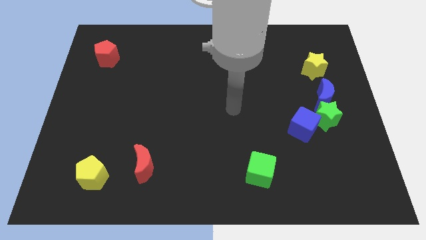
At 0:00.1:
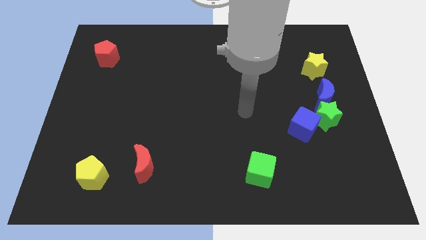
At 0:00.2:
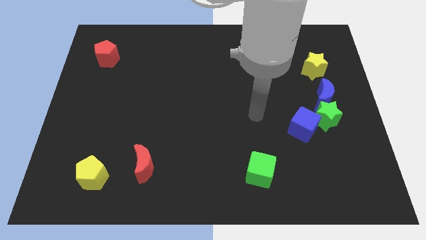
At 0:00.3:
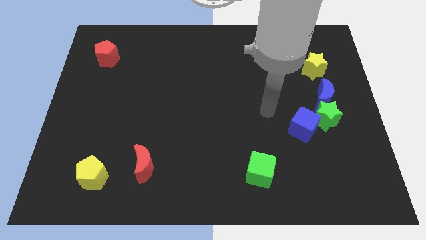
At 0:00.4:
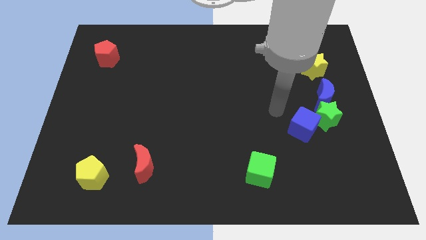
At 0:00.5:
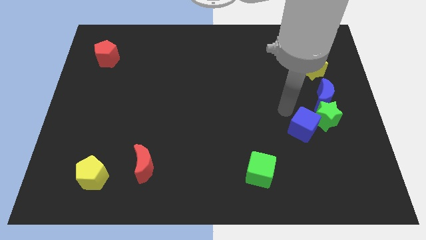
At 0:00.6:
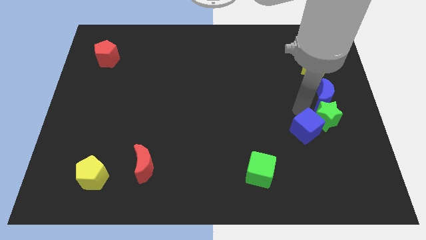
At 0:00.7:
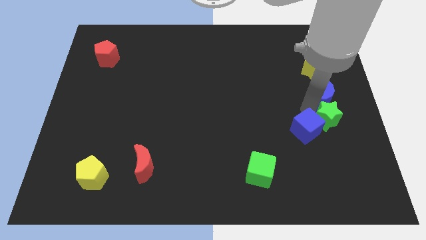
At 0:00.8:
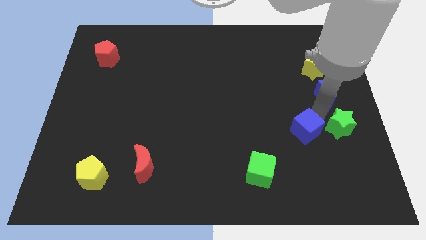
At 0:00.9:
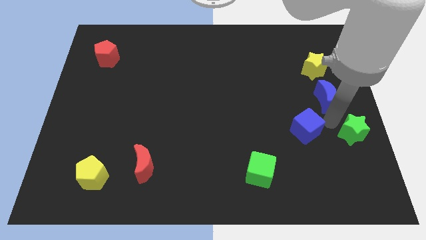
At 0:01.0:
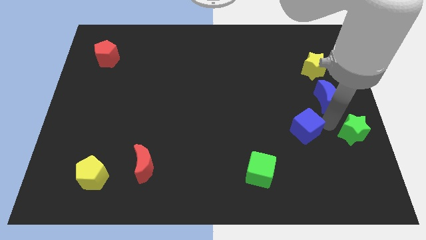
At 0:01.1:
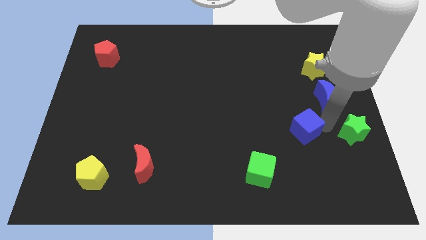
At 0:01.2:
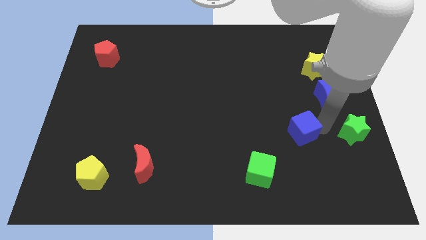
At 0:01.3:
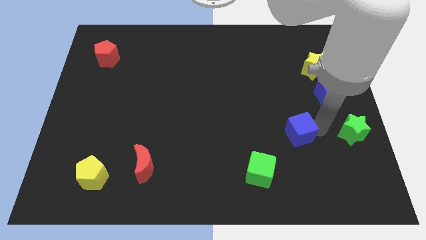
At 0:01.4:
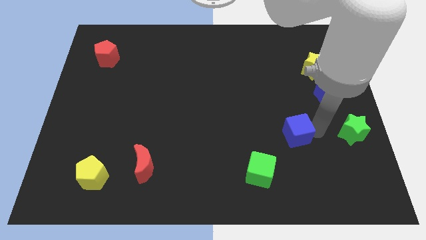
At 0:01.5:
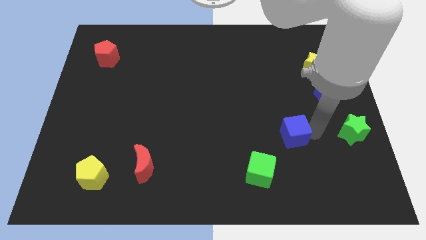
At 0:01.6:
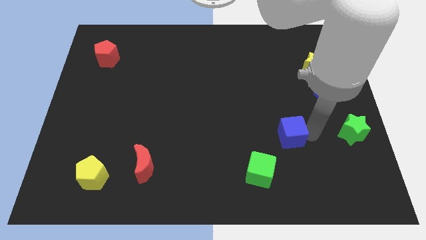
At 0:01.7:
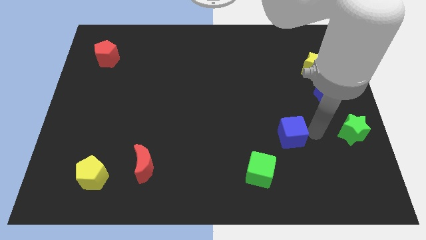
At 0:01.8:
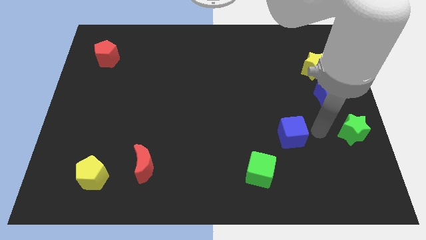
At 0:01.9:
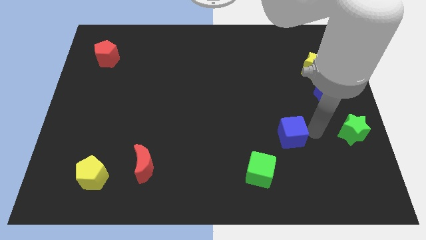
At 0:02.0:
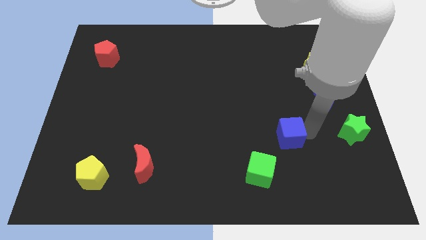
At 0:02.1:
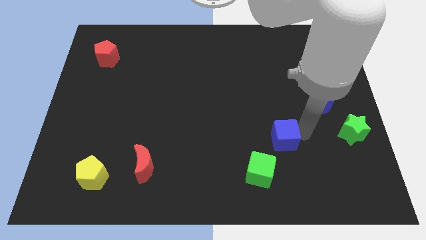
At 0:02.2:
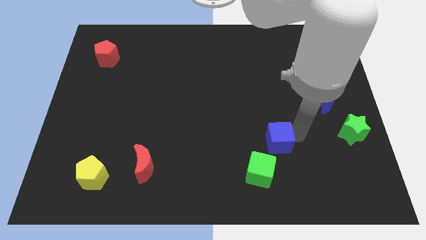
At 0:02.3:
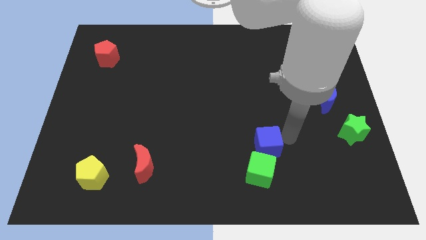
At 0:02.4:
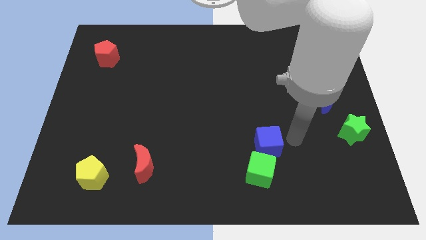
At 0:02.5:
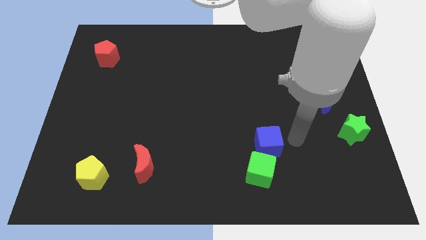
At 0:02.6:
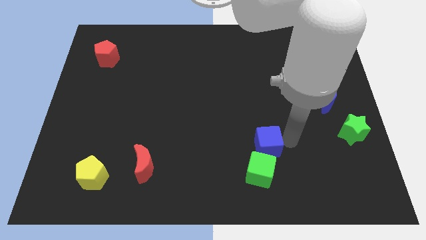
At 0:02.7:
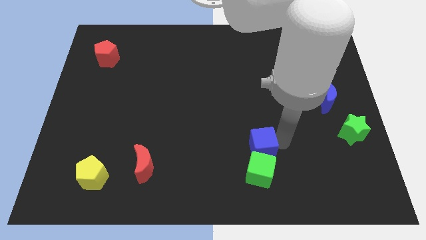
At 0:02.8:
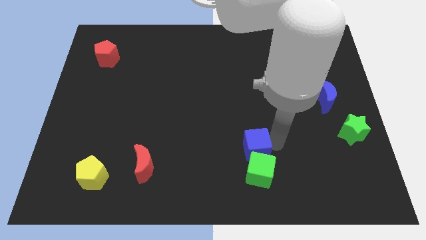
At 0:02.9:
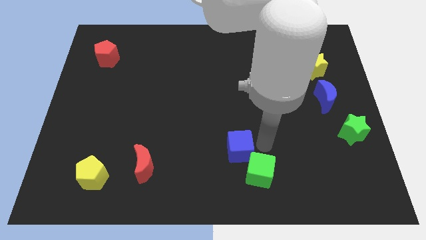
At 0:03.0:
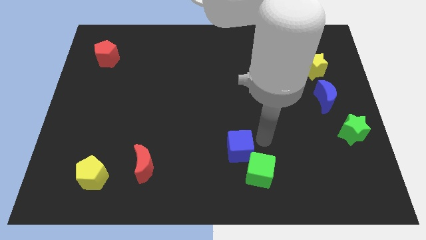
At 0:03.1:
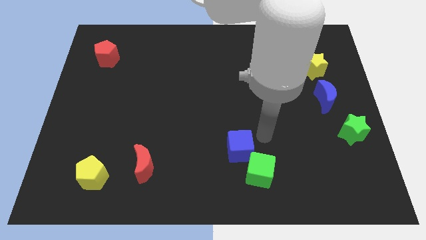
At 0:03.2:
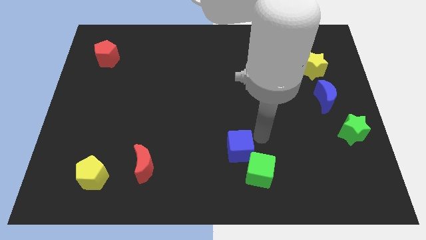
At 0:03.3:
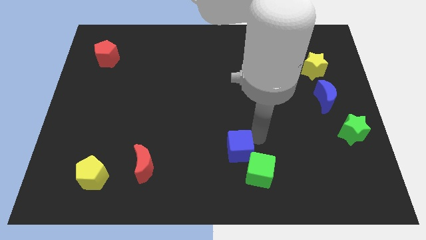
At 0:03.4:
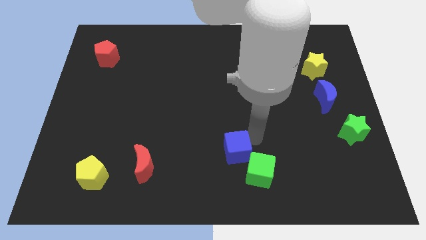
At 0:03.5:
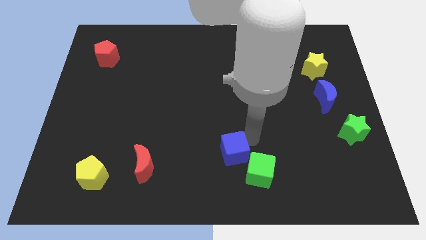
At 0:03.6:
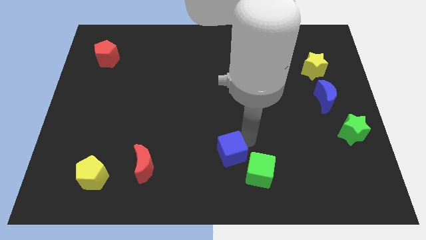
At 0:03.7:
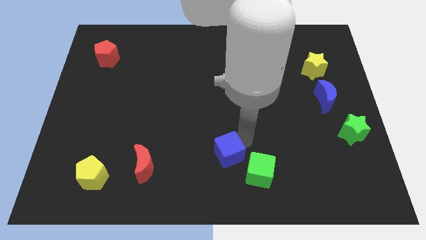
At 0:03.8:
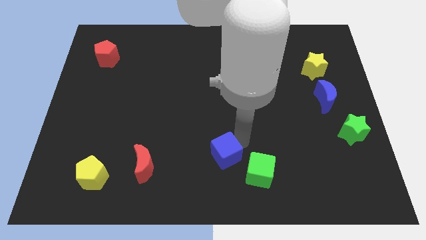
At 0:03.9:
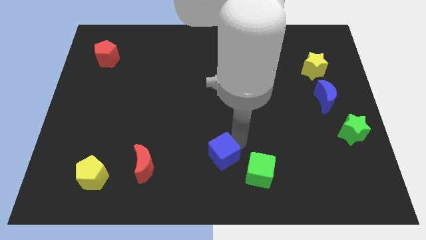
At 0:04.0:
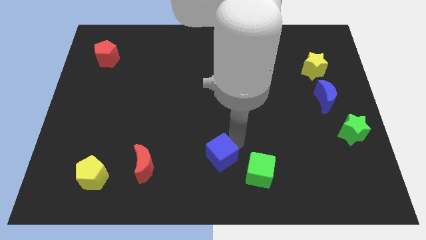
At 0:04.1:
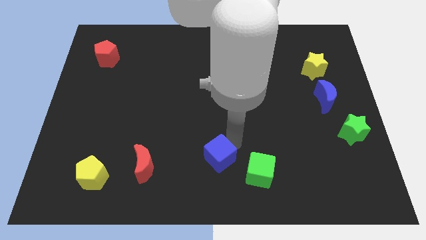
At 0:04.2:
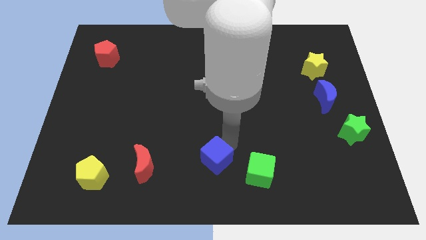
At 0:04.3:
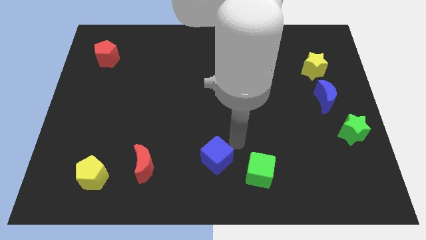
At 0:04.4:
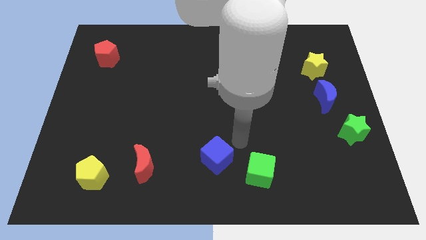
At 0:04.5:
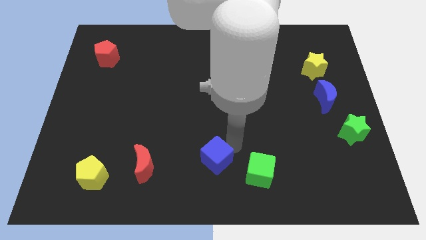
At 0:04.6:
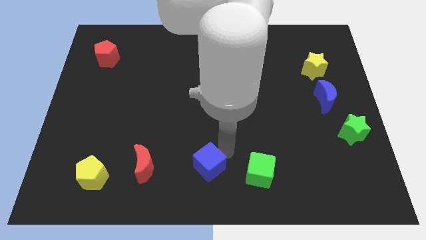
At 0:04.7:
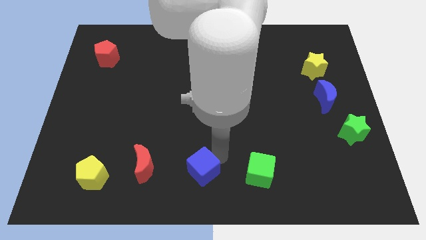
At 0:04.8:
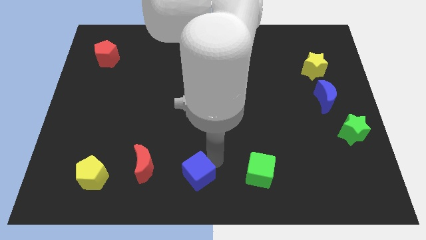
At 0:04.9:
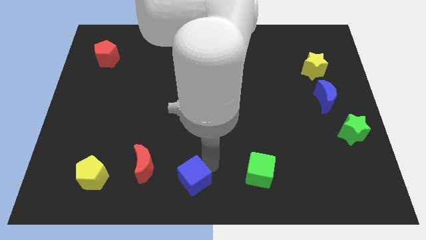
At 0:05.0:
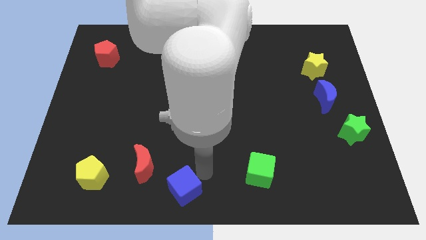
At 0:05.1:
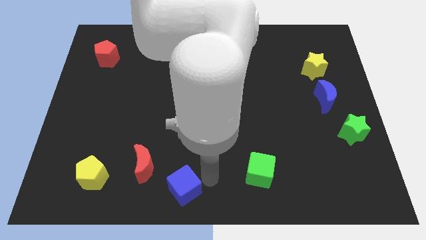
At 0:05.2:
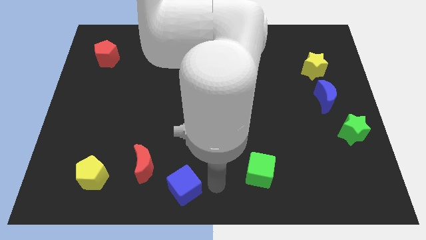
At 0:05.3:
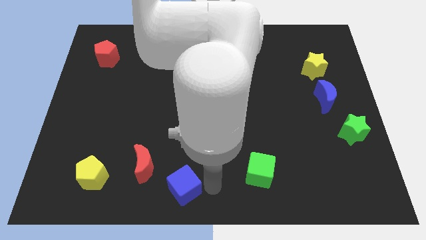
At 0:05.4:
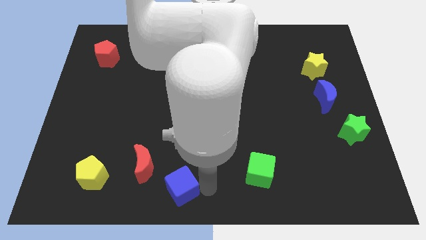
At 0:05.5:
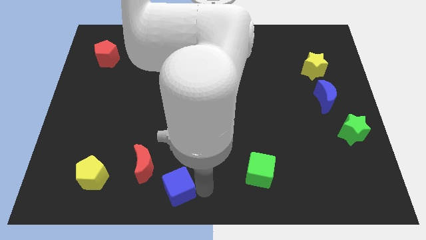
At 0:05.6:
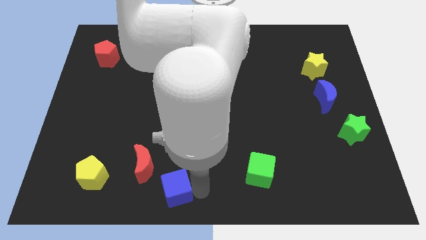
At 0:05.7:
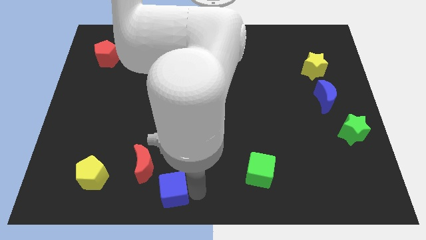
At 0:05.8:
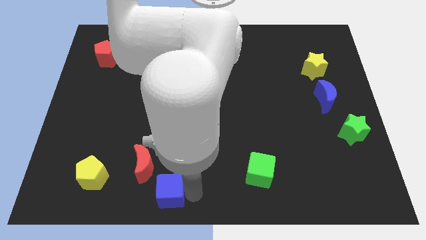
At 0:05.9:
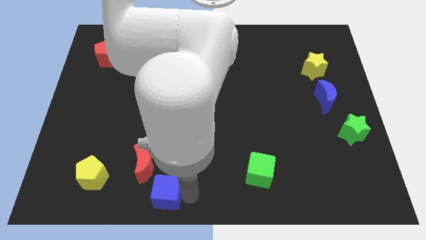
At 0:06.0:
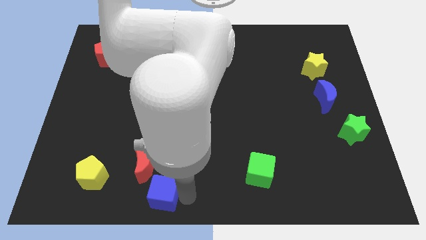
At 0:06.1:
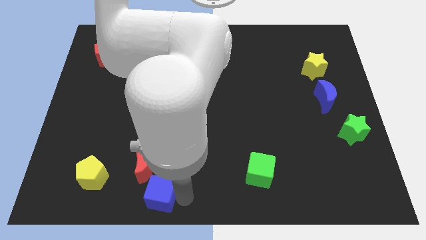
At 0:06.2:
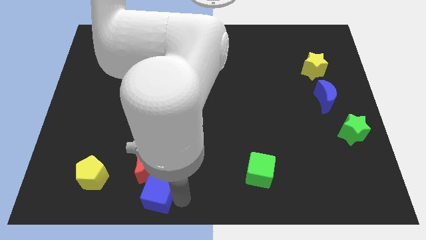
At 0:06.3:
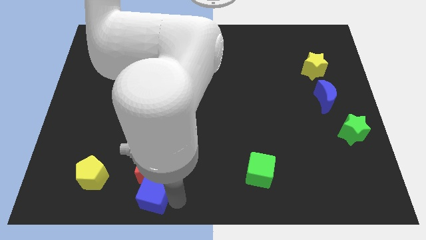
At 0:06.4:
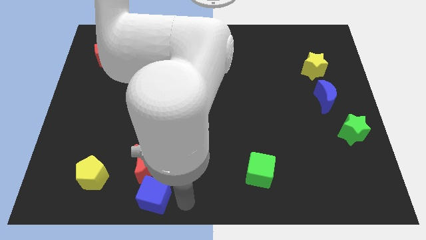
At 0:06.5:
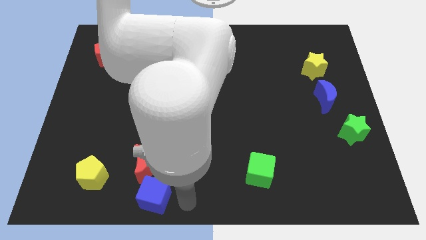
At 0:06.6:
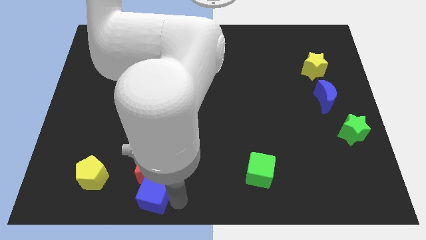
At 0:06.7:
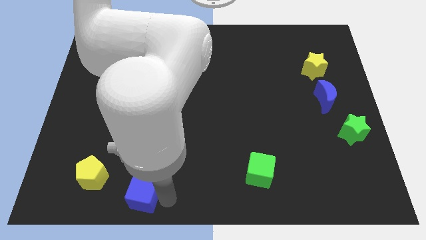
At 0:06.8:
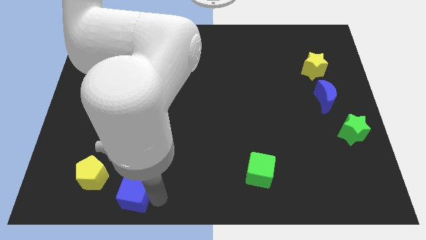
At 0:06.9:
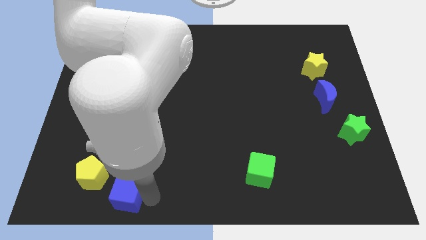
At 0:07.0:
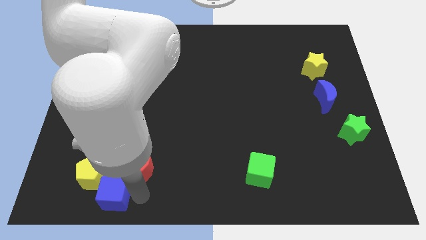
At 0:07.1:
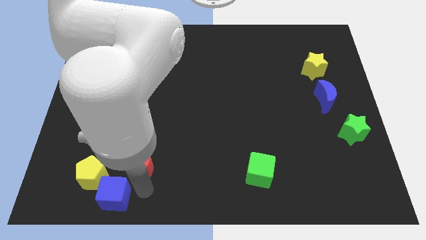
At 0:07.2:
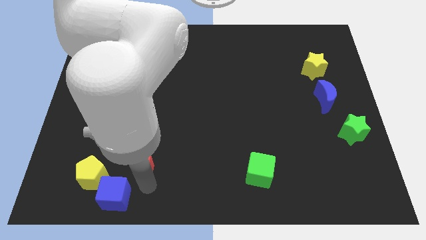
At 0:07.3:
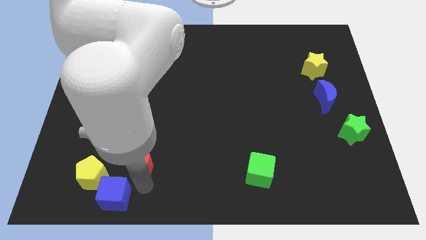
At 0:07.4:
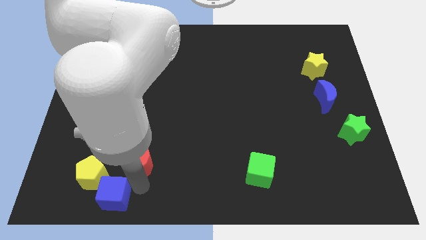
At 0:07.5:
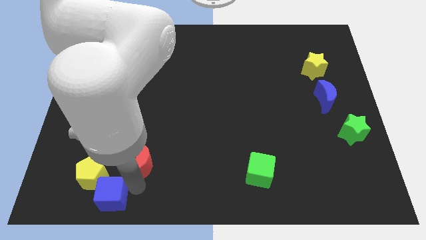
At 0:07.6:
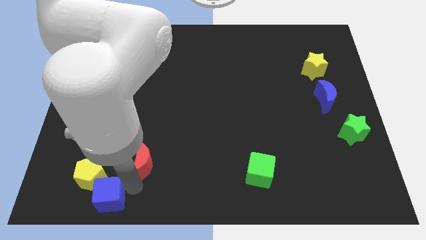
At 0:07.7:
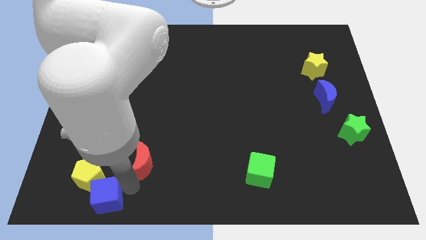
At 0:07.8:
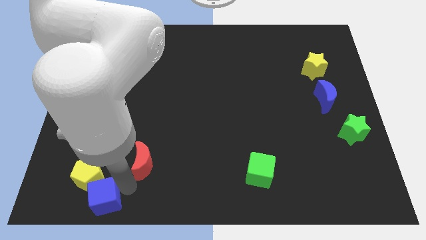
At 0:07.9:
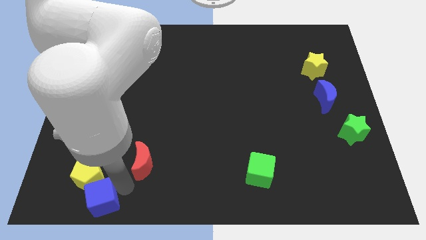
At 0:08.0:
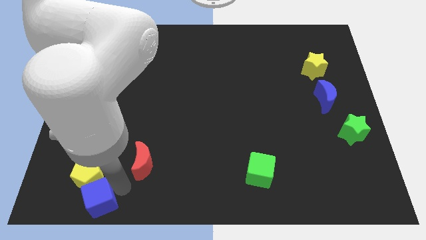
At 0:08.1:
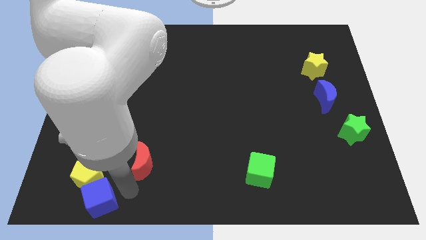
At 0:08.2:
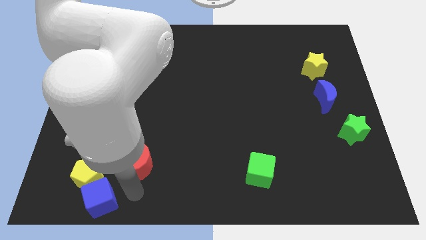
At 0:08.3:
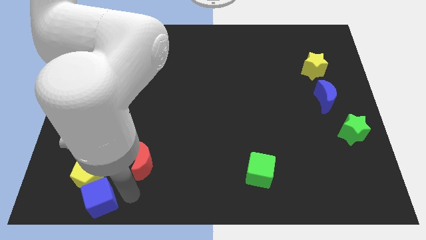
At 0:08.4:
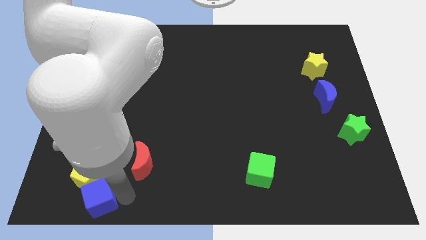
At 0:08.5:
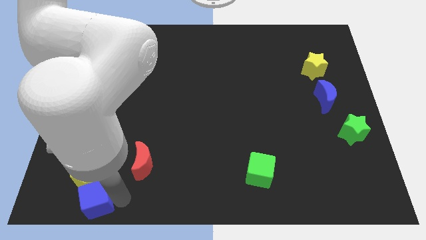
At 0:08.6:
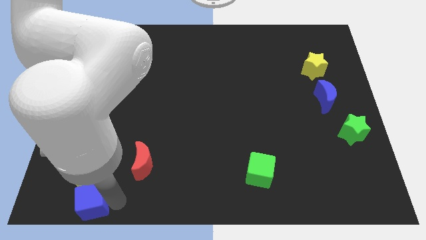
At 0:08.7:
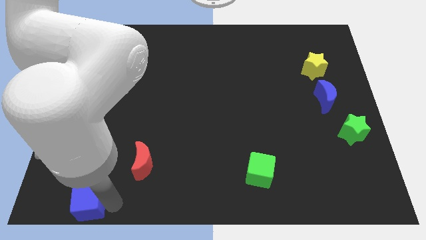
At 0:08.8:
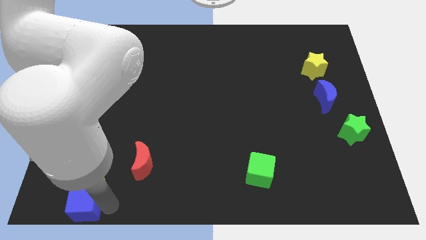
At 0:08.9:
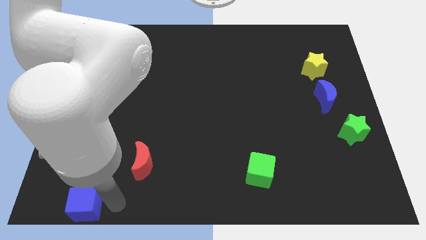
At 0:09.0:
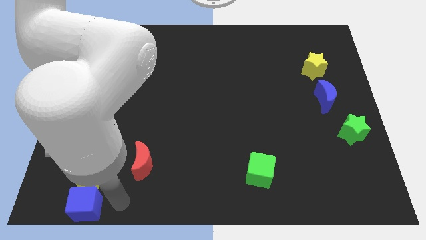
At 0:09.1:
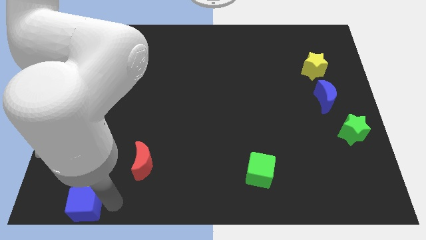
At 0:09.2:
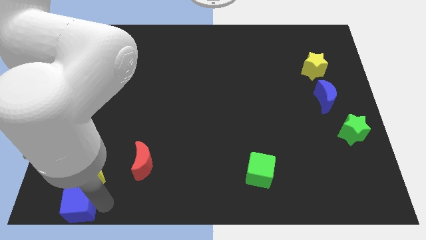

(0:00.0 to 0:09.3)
move the blue cube to the lower left corner
